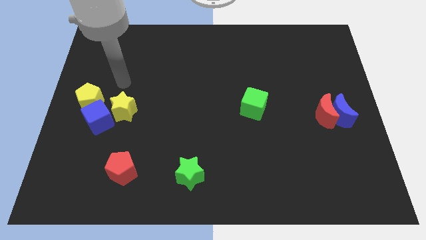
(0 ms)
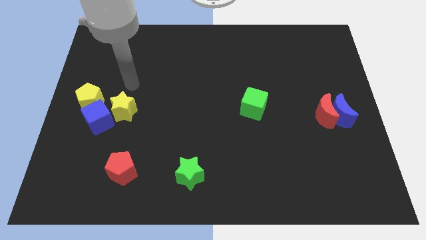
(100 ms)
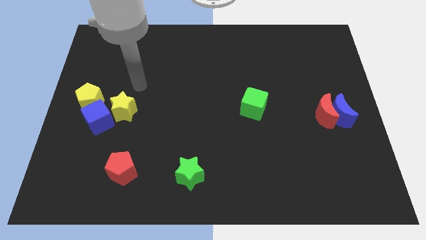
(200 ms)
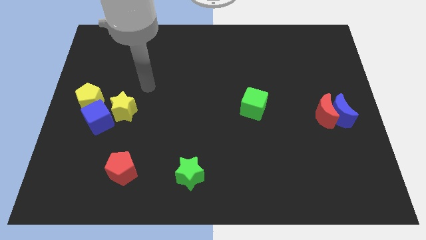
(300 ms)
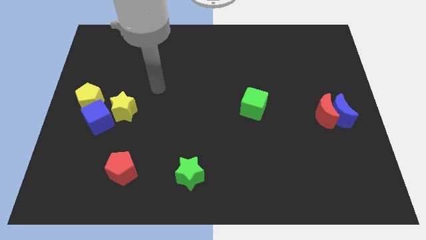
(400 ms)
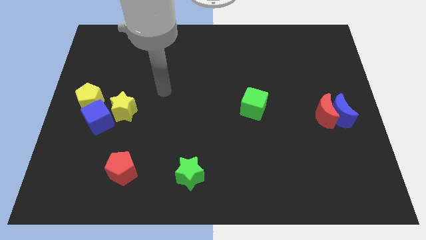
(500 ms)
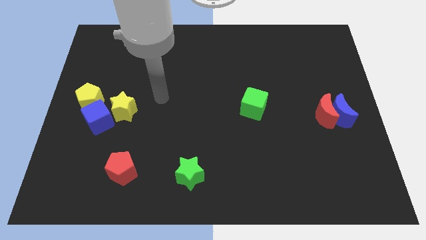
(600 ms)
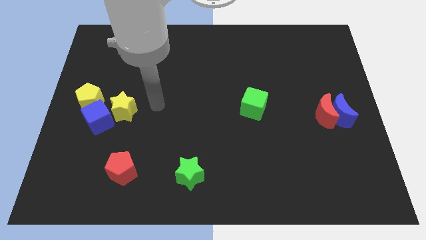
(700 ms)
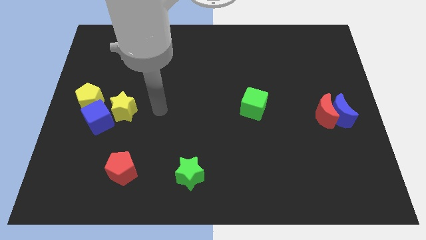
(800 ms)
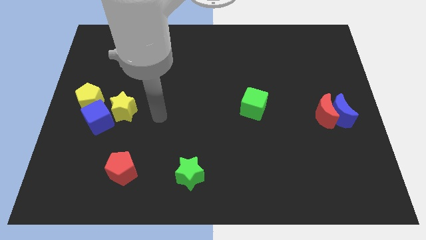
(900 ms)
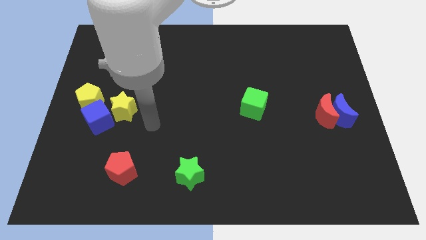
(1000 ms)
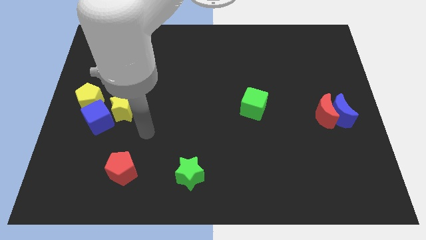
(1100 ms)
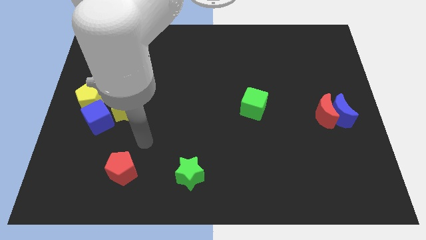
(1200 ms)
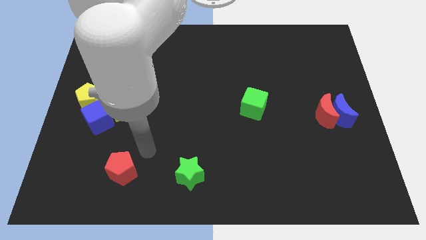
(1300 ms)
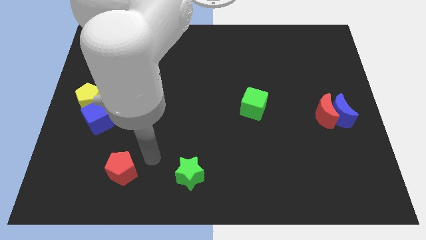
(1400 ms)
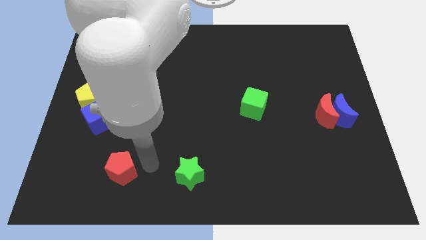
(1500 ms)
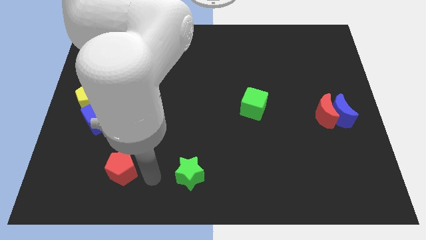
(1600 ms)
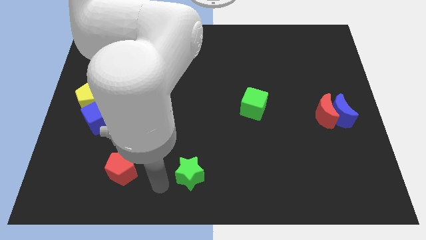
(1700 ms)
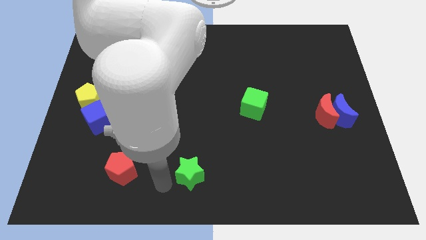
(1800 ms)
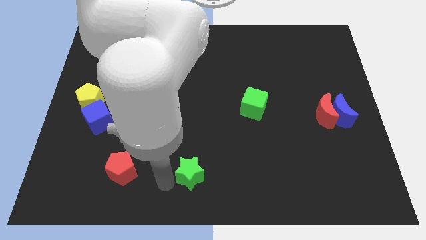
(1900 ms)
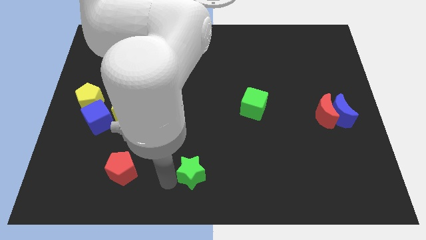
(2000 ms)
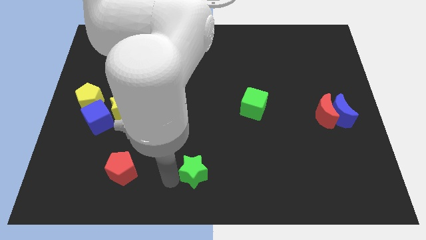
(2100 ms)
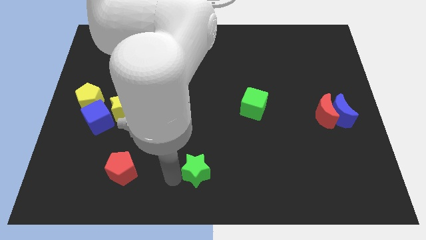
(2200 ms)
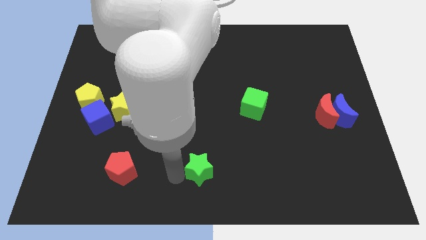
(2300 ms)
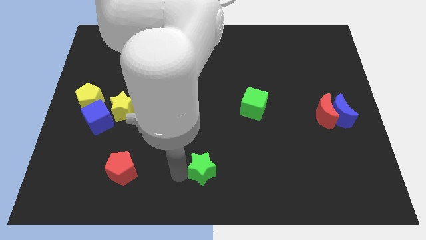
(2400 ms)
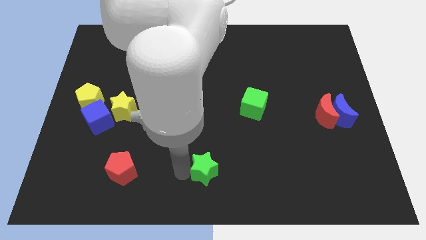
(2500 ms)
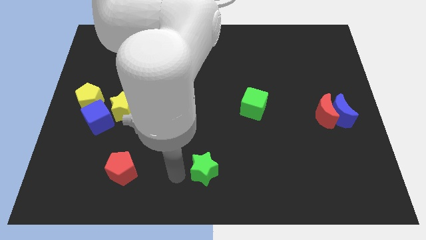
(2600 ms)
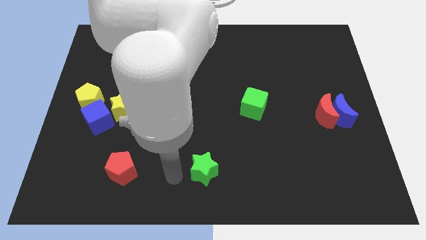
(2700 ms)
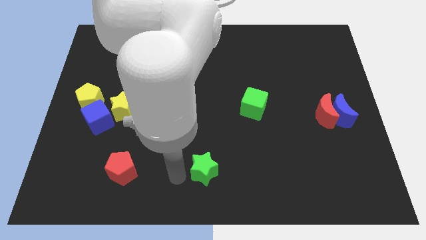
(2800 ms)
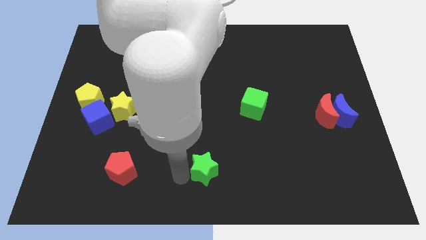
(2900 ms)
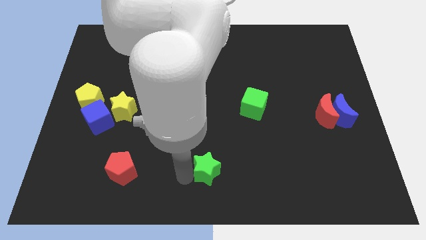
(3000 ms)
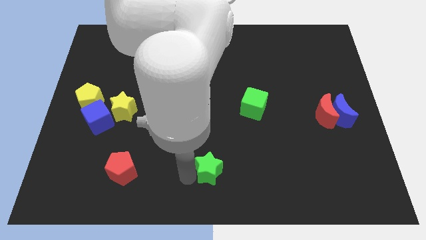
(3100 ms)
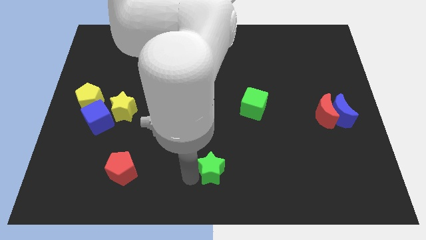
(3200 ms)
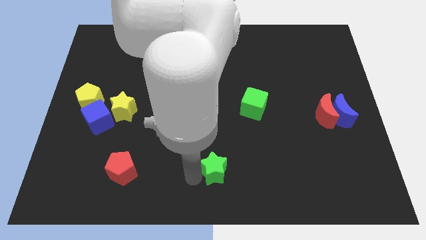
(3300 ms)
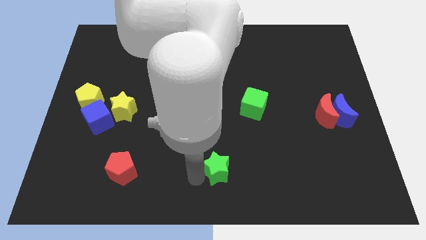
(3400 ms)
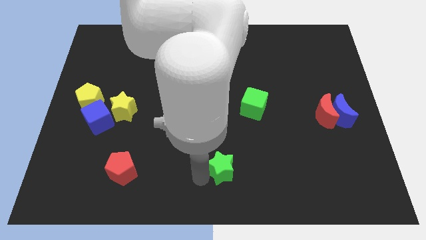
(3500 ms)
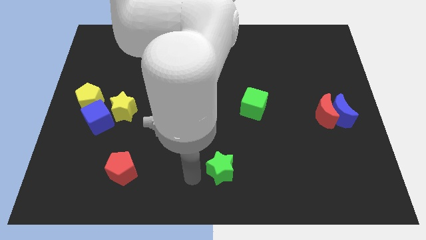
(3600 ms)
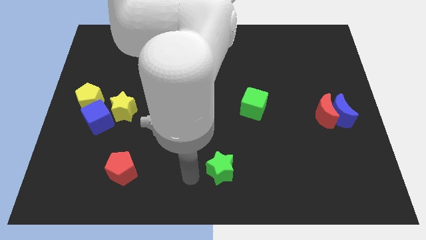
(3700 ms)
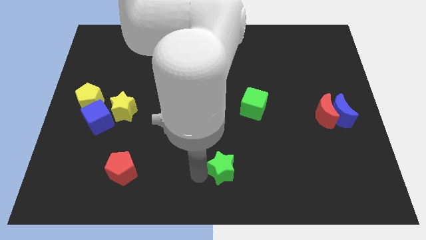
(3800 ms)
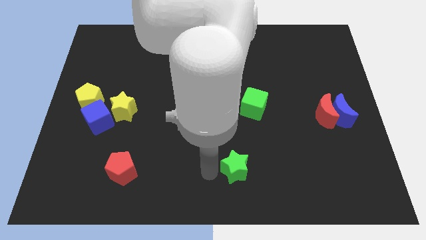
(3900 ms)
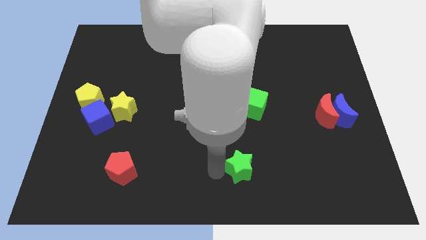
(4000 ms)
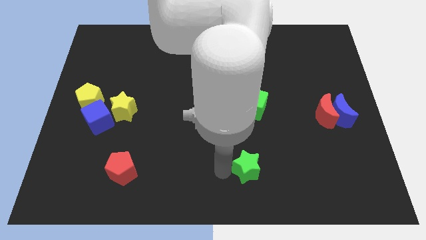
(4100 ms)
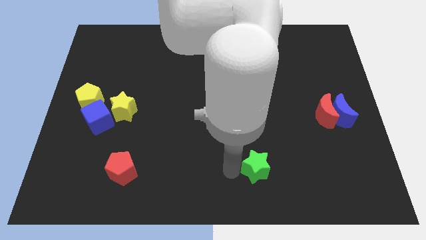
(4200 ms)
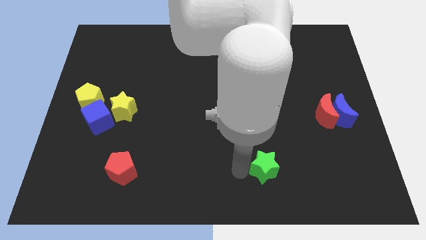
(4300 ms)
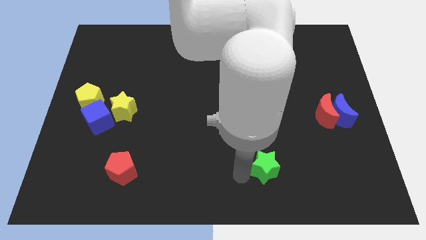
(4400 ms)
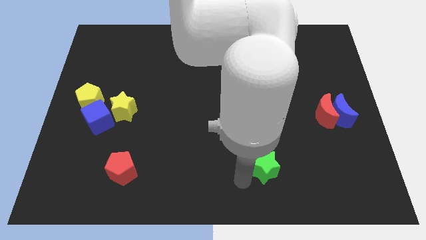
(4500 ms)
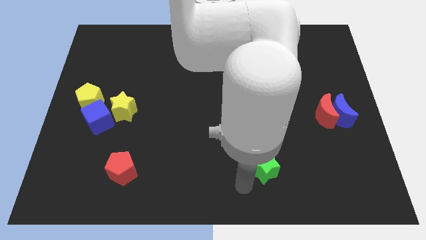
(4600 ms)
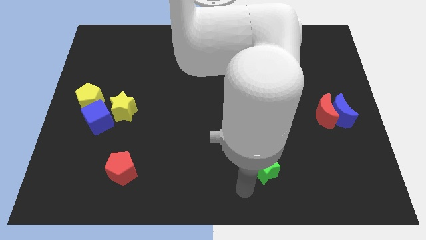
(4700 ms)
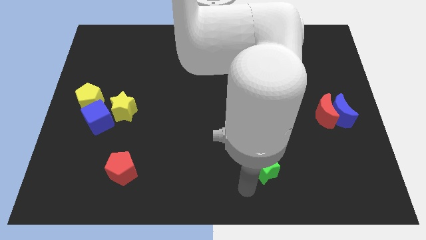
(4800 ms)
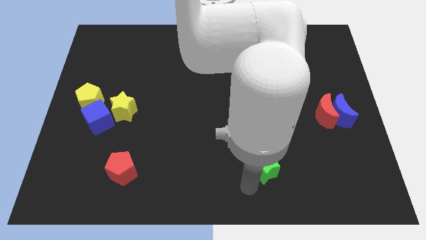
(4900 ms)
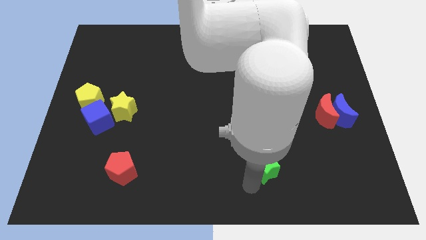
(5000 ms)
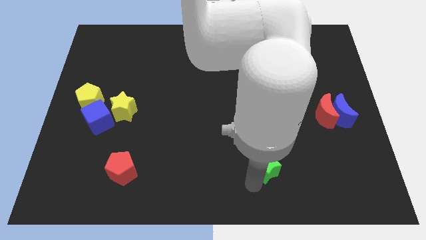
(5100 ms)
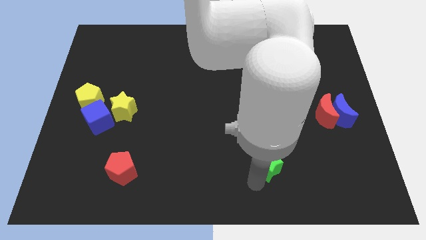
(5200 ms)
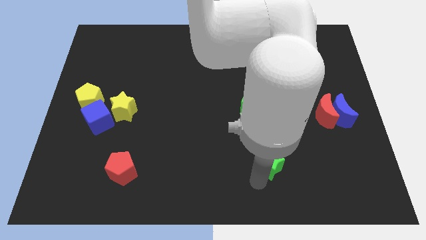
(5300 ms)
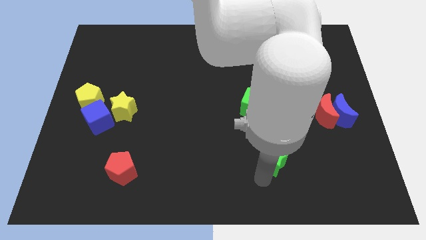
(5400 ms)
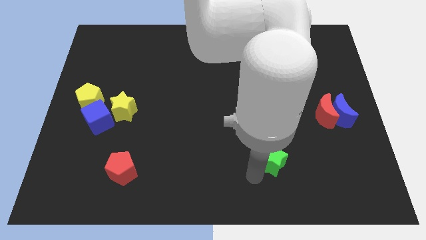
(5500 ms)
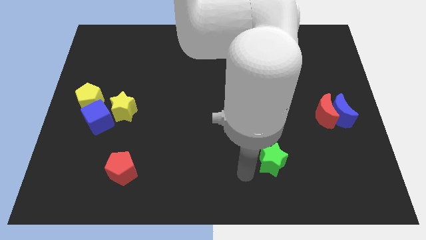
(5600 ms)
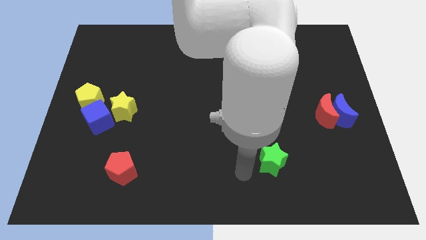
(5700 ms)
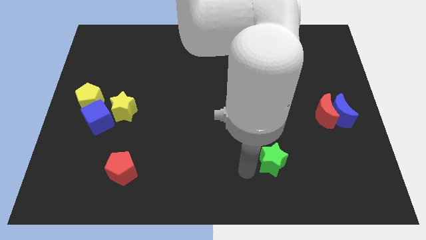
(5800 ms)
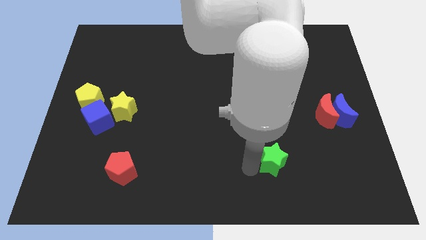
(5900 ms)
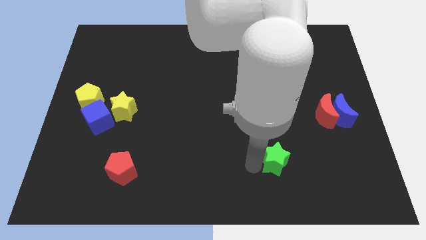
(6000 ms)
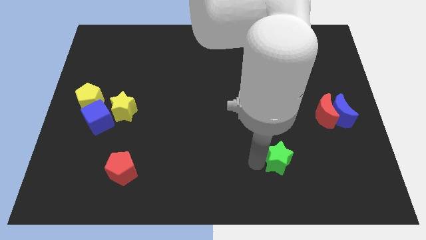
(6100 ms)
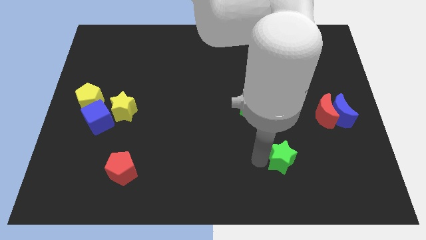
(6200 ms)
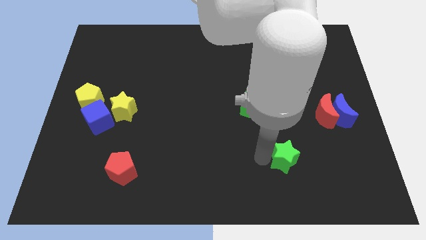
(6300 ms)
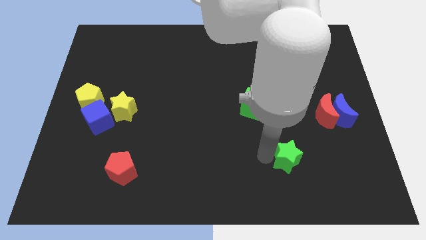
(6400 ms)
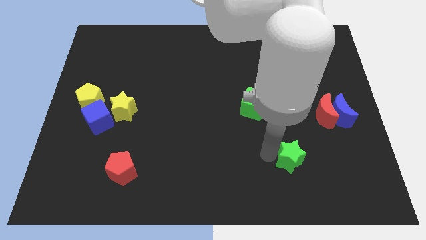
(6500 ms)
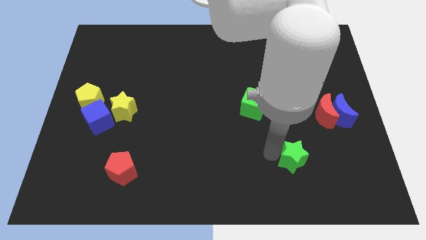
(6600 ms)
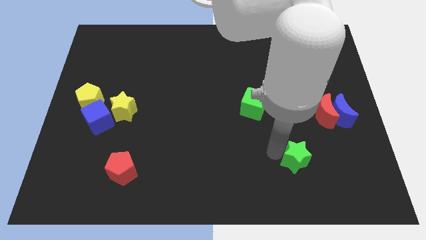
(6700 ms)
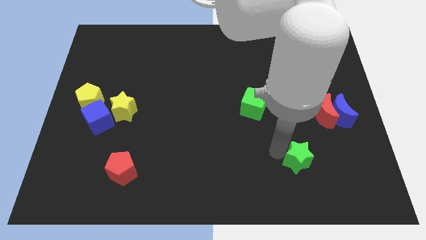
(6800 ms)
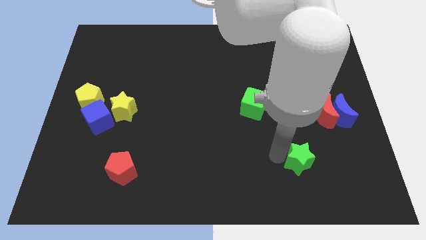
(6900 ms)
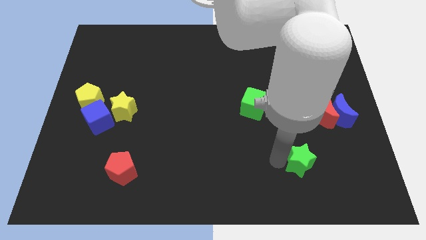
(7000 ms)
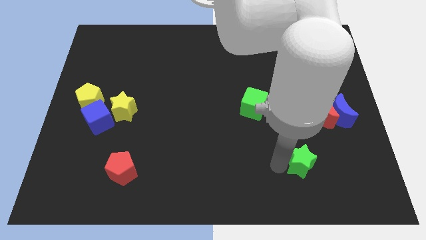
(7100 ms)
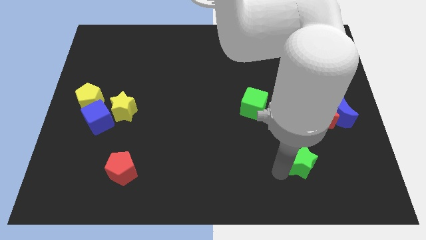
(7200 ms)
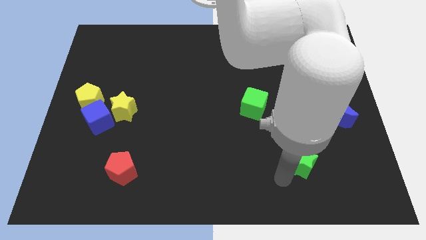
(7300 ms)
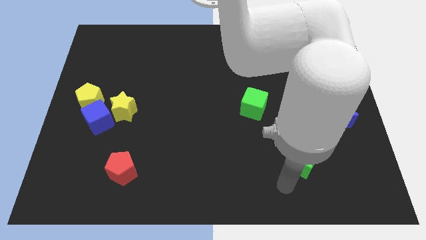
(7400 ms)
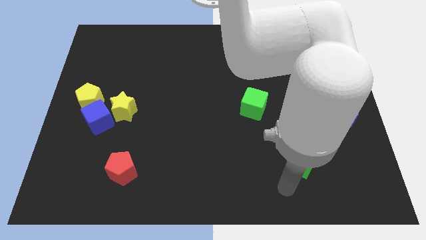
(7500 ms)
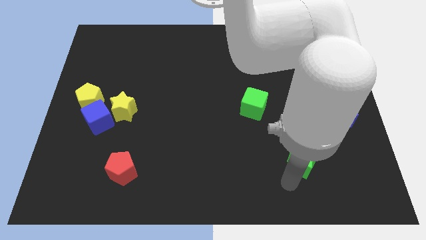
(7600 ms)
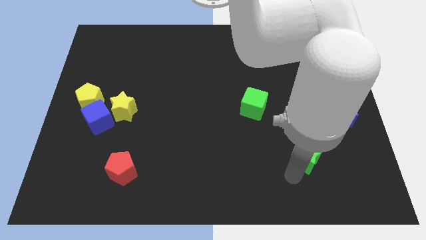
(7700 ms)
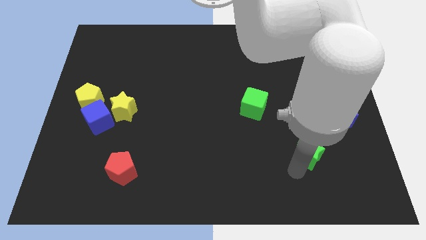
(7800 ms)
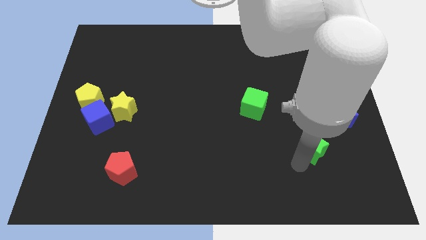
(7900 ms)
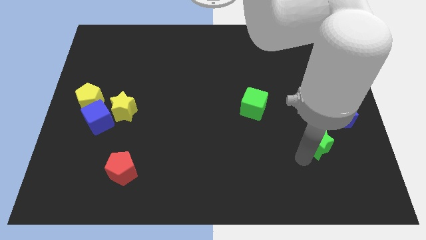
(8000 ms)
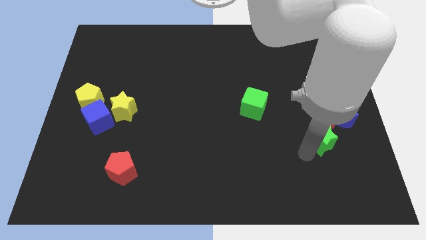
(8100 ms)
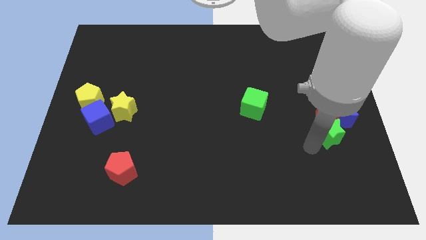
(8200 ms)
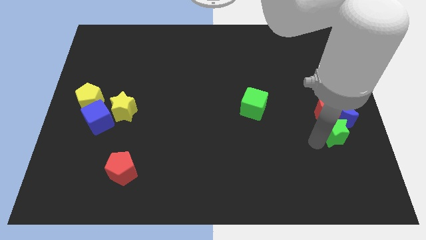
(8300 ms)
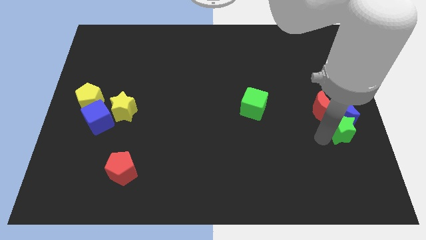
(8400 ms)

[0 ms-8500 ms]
move the green star to the right side
